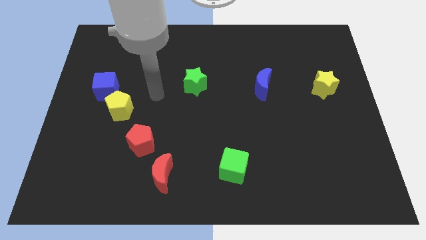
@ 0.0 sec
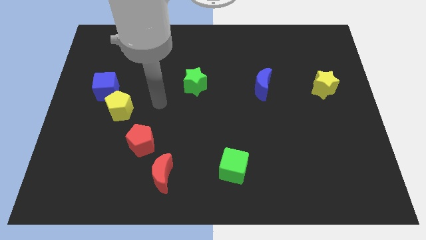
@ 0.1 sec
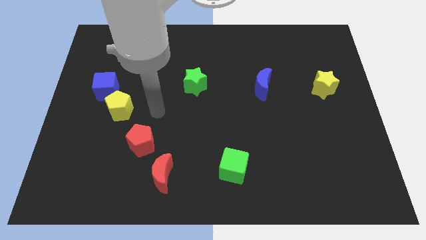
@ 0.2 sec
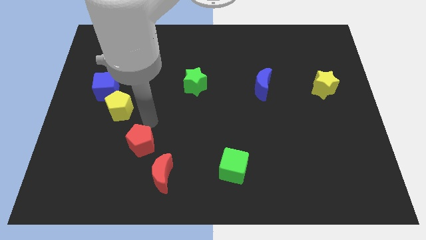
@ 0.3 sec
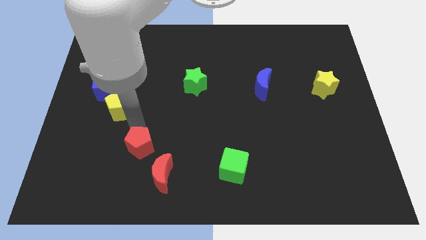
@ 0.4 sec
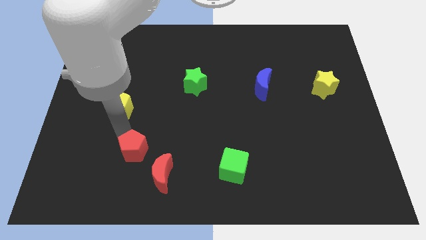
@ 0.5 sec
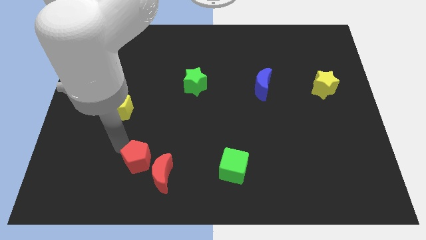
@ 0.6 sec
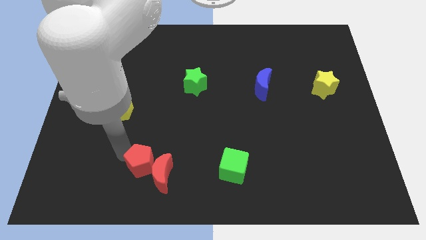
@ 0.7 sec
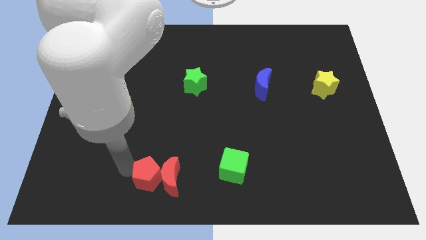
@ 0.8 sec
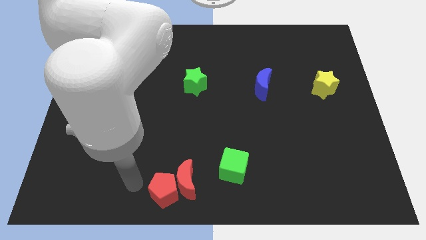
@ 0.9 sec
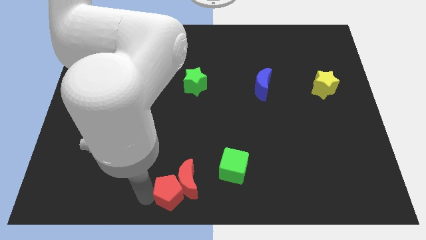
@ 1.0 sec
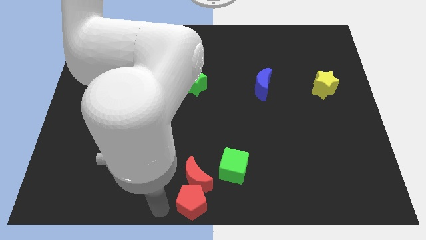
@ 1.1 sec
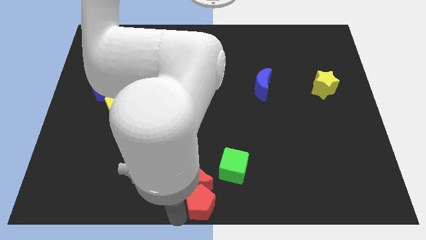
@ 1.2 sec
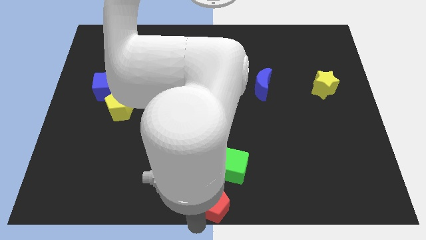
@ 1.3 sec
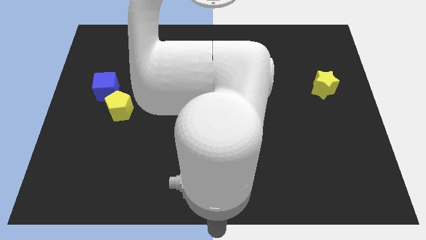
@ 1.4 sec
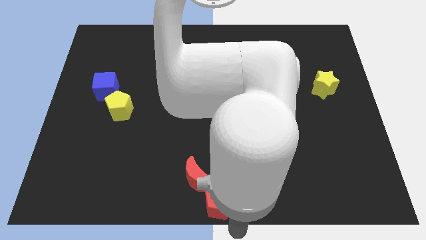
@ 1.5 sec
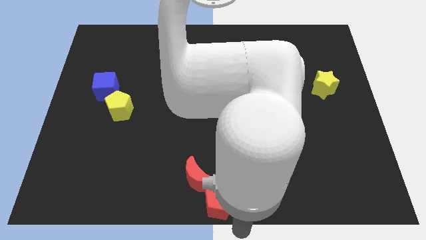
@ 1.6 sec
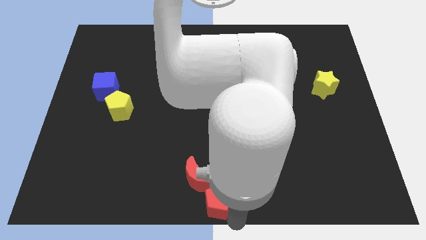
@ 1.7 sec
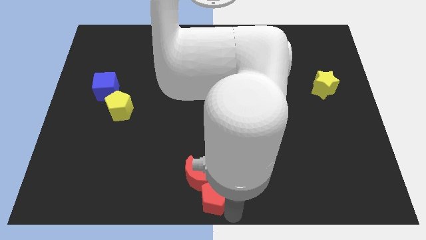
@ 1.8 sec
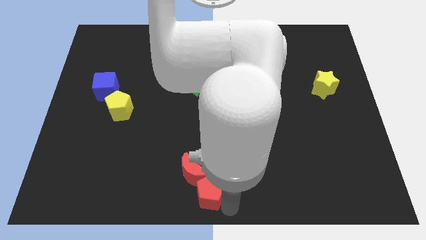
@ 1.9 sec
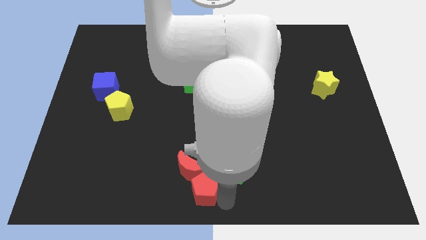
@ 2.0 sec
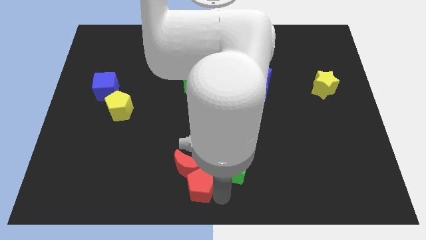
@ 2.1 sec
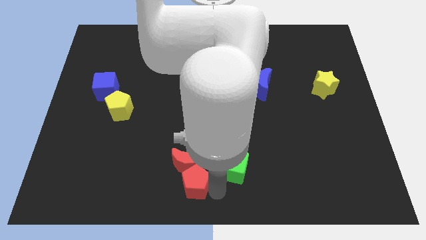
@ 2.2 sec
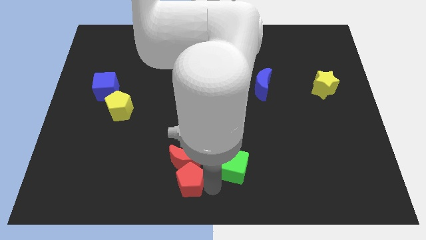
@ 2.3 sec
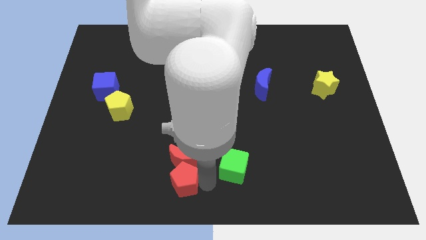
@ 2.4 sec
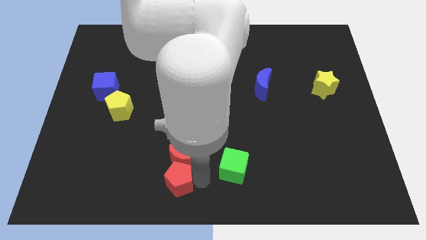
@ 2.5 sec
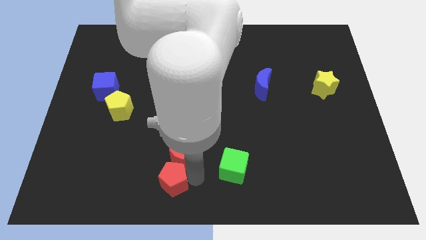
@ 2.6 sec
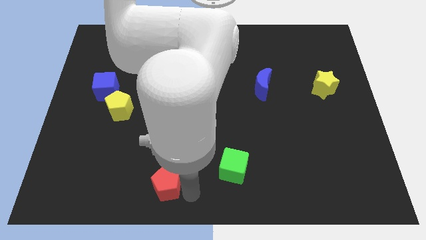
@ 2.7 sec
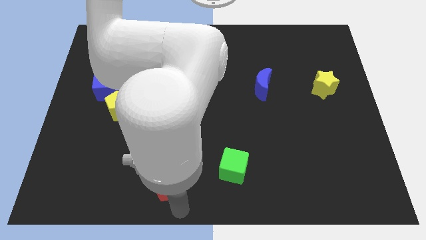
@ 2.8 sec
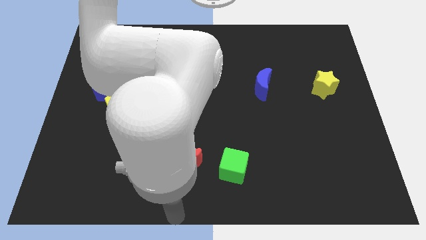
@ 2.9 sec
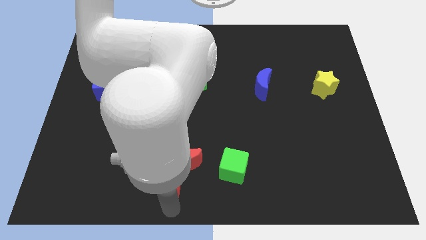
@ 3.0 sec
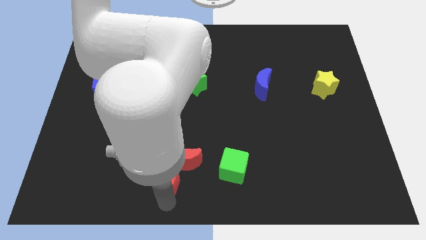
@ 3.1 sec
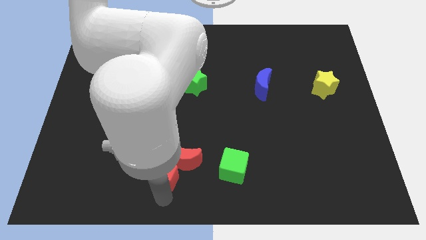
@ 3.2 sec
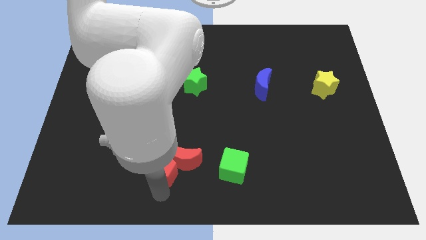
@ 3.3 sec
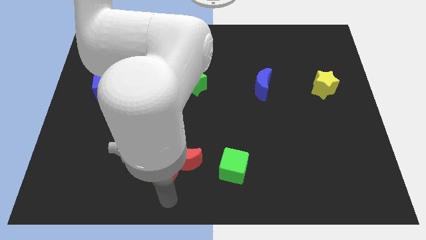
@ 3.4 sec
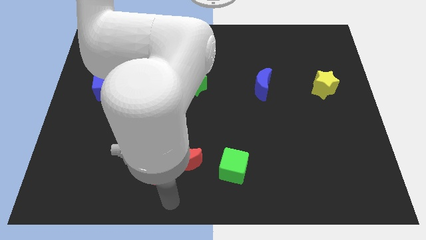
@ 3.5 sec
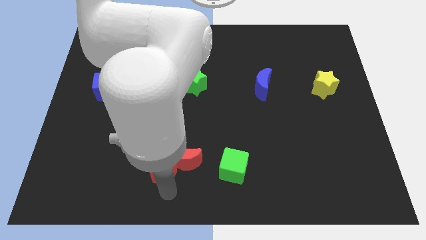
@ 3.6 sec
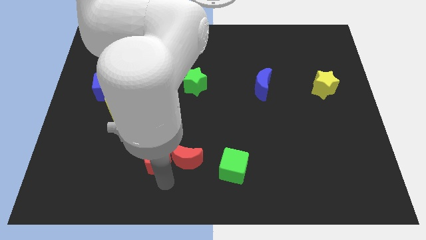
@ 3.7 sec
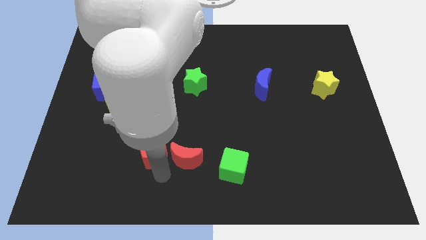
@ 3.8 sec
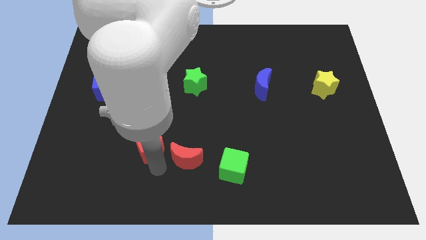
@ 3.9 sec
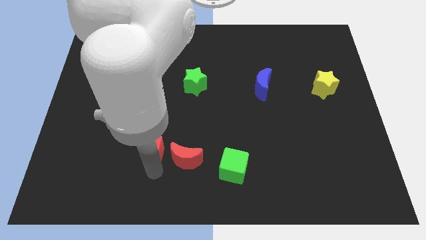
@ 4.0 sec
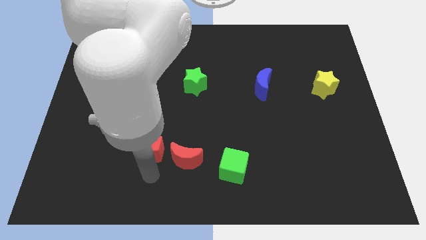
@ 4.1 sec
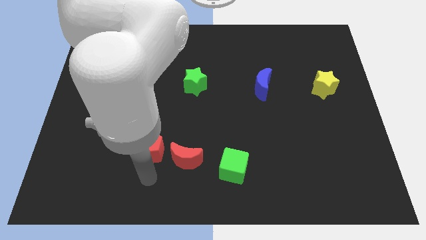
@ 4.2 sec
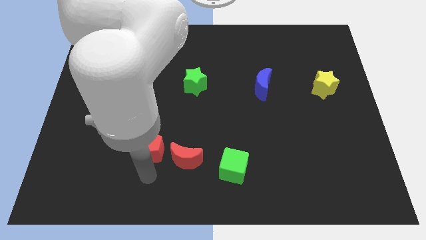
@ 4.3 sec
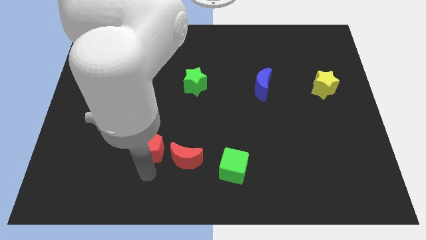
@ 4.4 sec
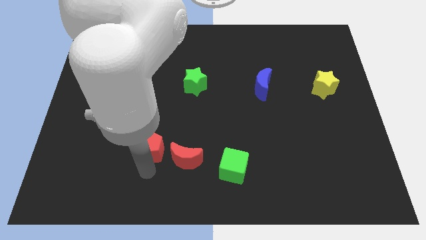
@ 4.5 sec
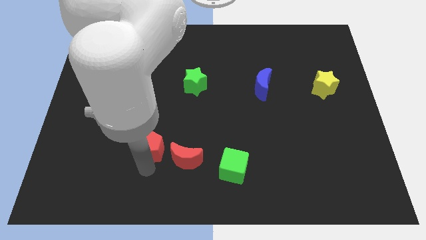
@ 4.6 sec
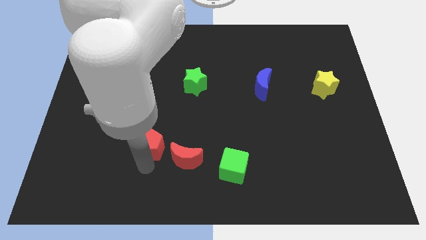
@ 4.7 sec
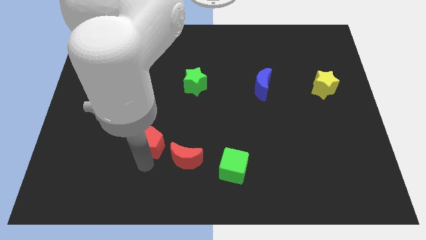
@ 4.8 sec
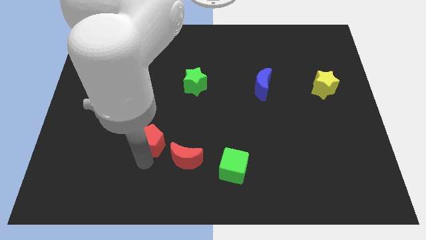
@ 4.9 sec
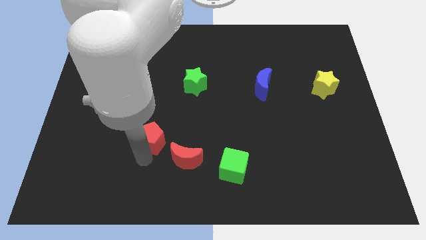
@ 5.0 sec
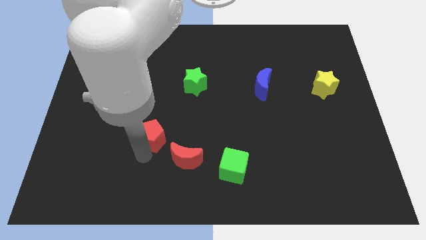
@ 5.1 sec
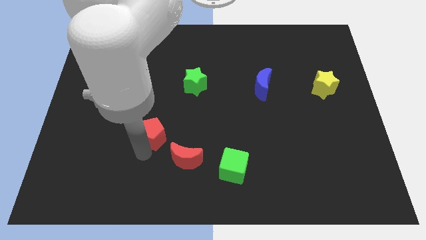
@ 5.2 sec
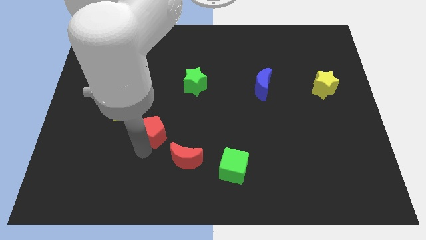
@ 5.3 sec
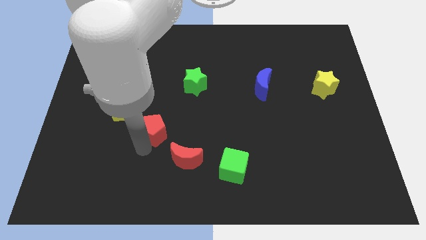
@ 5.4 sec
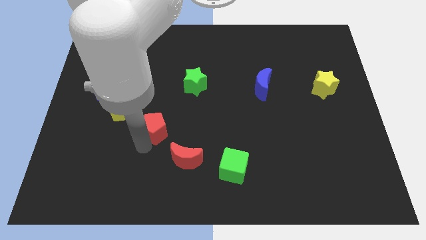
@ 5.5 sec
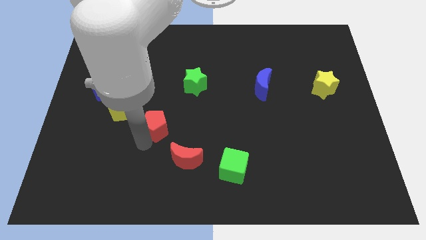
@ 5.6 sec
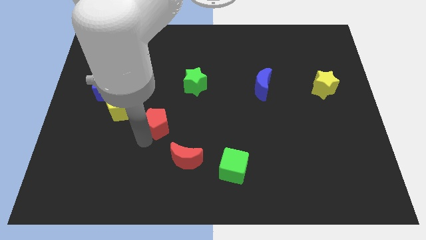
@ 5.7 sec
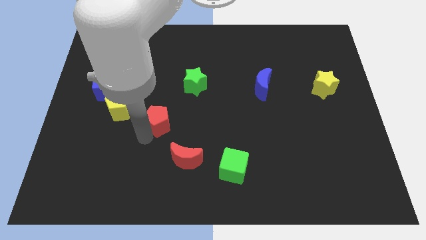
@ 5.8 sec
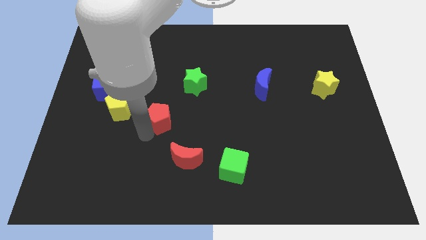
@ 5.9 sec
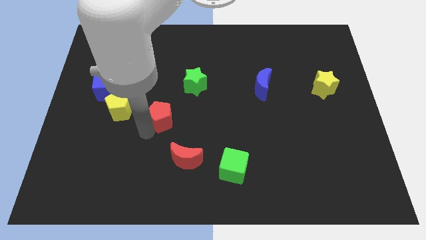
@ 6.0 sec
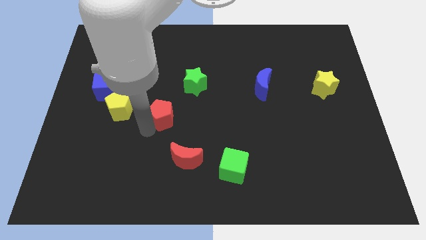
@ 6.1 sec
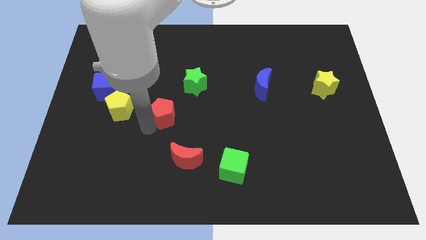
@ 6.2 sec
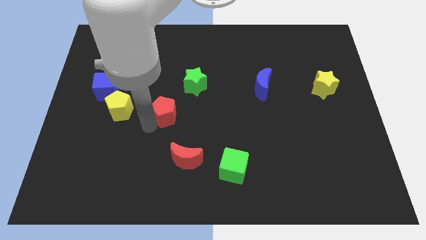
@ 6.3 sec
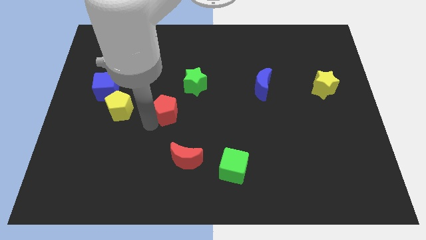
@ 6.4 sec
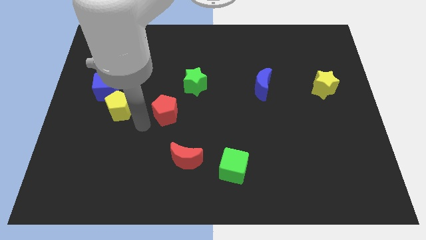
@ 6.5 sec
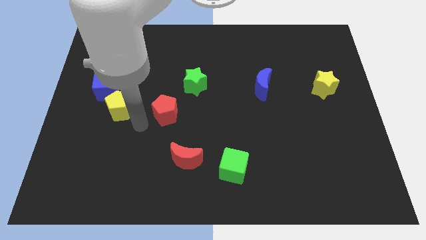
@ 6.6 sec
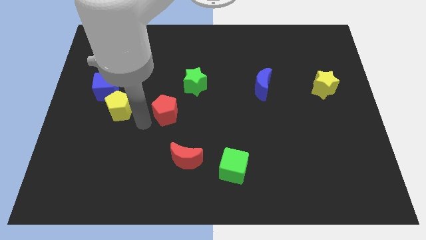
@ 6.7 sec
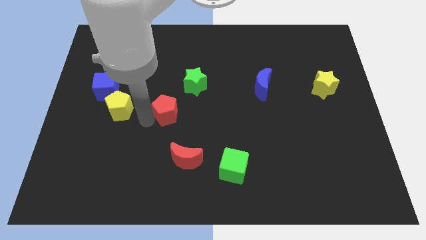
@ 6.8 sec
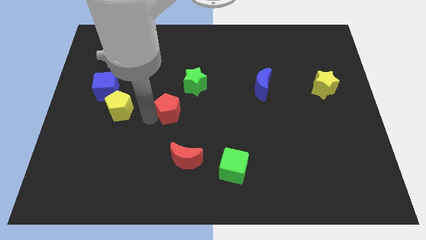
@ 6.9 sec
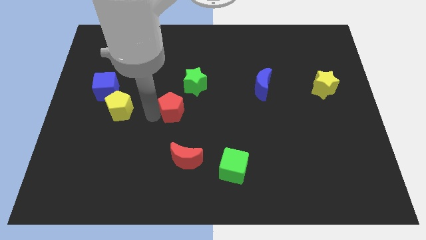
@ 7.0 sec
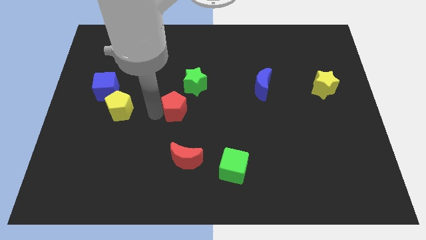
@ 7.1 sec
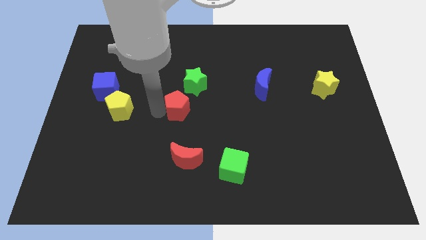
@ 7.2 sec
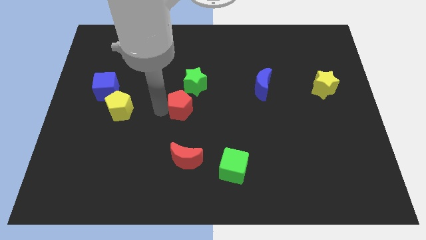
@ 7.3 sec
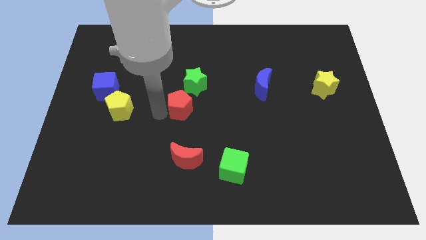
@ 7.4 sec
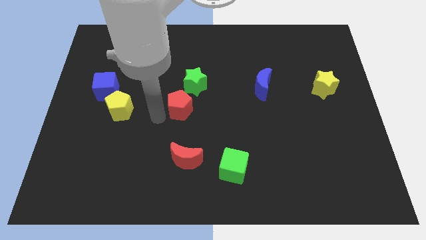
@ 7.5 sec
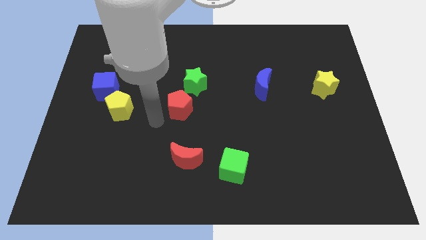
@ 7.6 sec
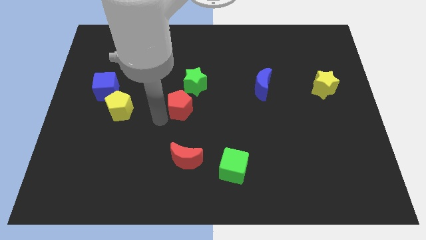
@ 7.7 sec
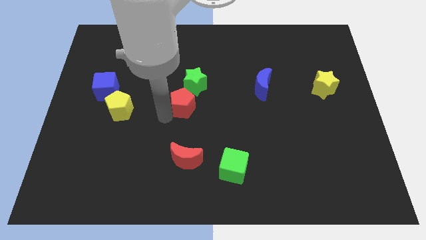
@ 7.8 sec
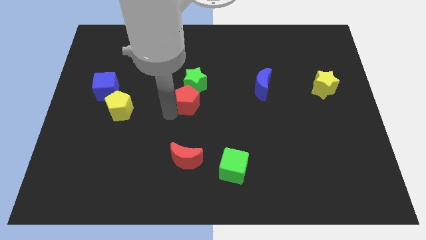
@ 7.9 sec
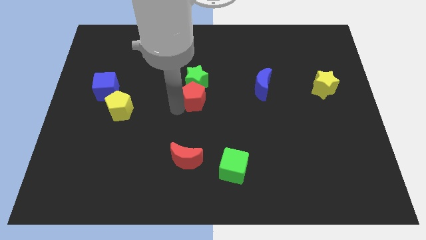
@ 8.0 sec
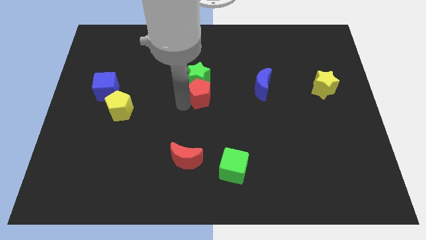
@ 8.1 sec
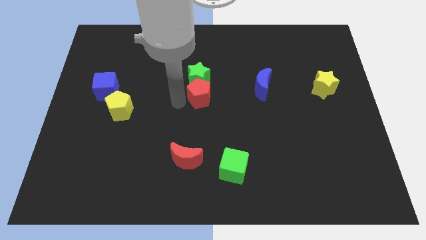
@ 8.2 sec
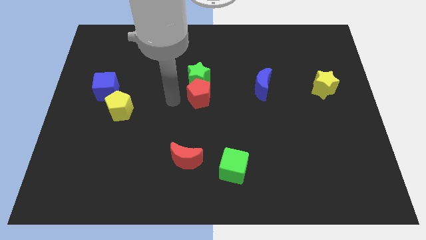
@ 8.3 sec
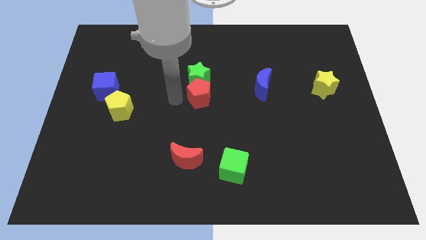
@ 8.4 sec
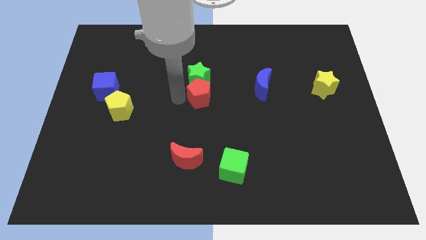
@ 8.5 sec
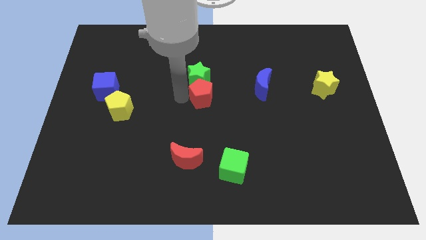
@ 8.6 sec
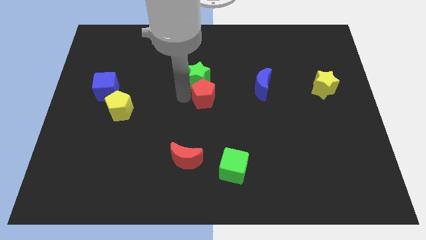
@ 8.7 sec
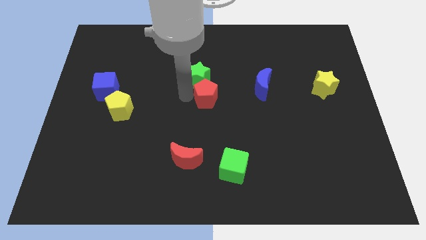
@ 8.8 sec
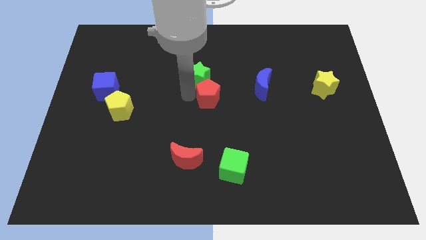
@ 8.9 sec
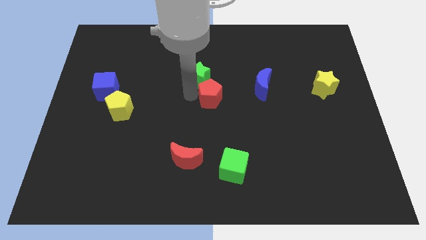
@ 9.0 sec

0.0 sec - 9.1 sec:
move the red pentagon diagonally up and right
